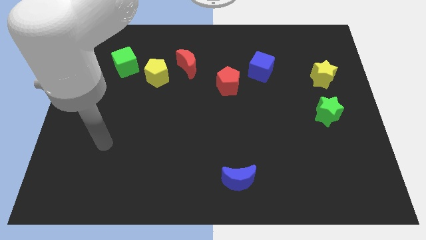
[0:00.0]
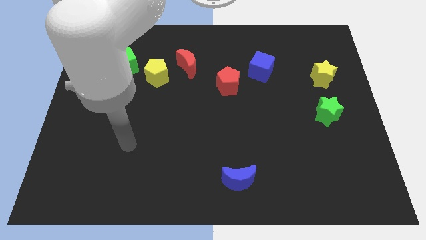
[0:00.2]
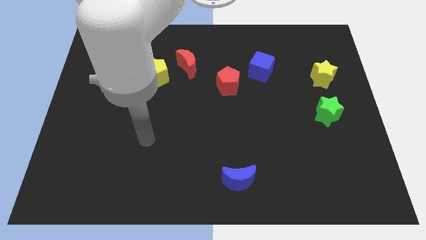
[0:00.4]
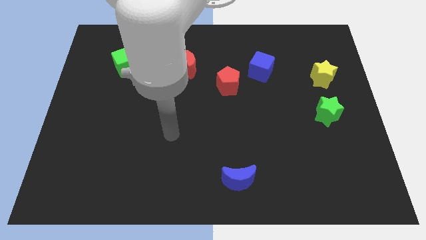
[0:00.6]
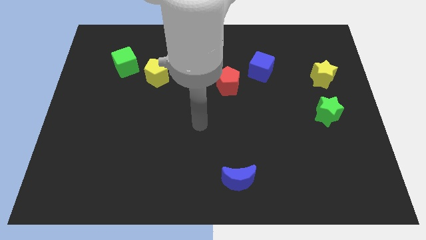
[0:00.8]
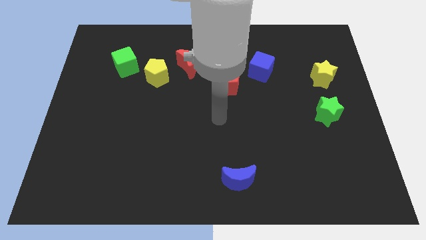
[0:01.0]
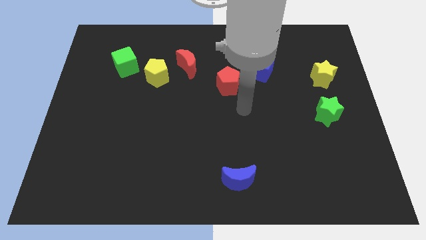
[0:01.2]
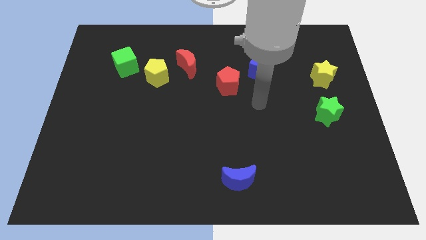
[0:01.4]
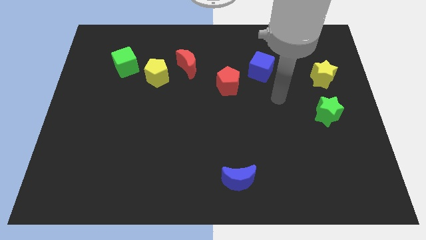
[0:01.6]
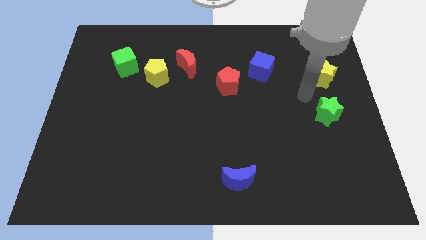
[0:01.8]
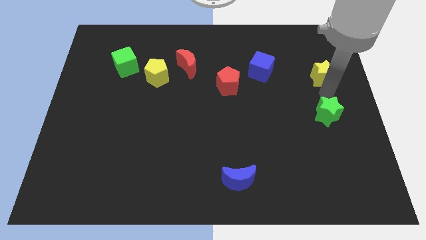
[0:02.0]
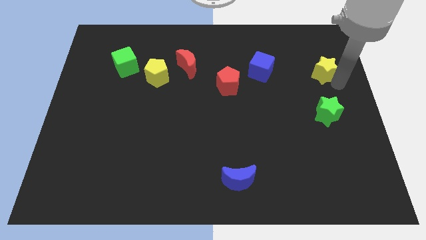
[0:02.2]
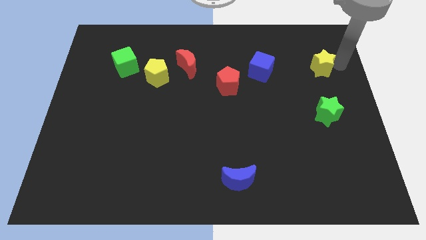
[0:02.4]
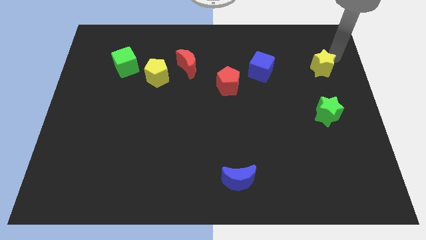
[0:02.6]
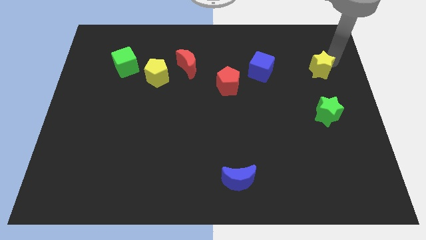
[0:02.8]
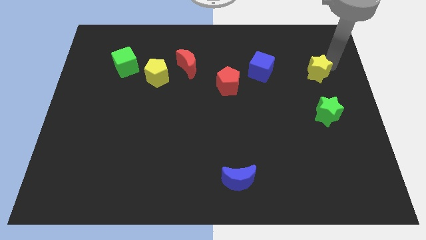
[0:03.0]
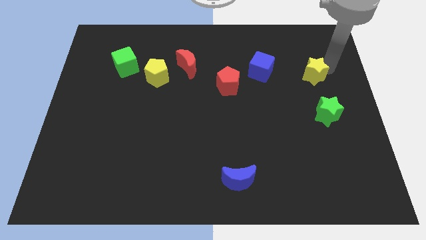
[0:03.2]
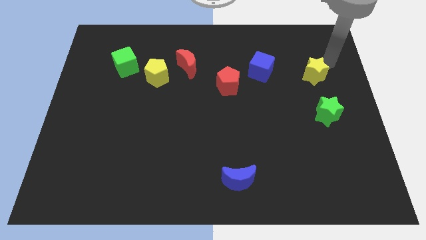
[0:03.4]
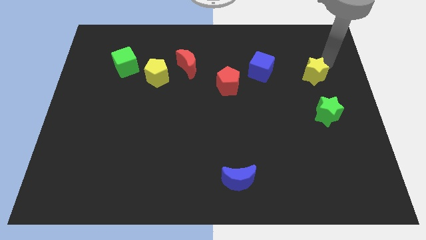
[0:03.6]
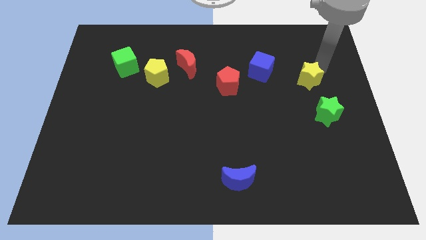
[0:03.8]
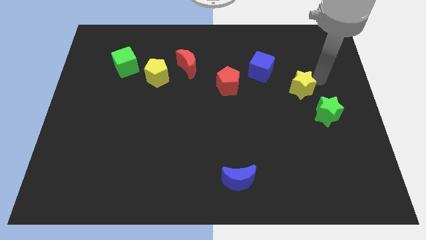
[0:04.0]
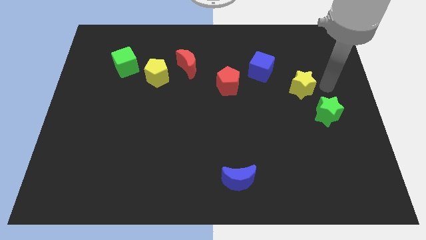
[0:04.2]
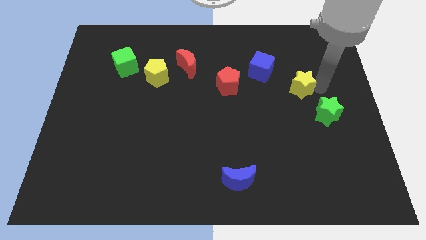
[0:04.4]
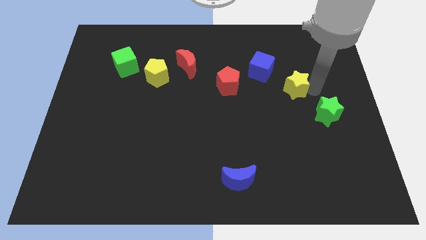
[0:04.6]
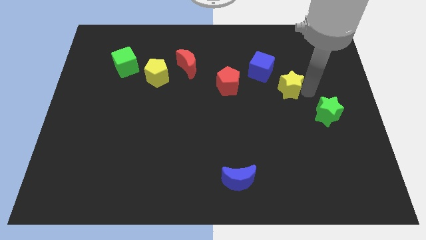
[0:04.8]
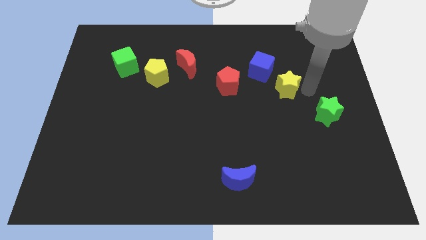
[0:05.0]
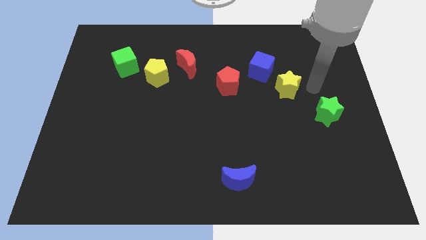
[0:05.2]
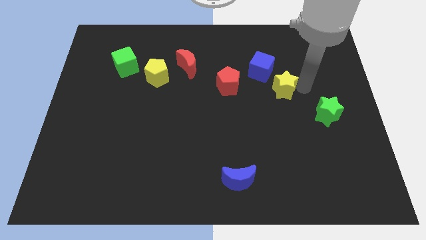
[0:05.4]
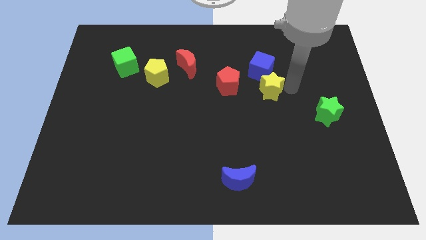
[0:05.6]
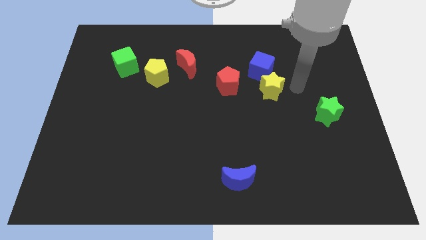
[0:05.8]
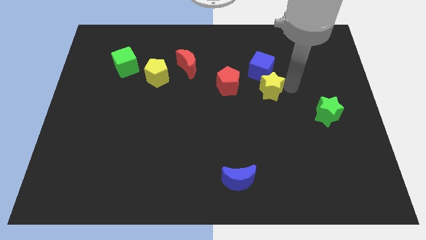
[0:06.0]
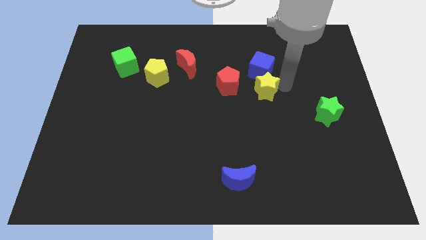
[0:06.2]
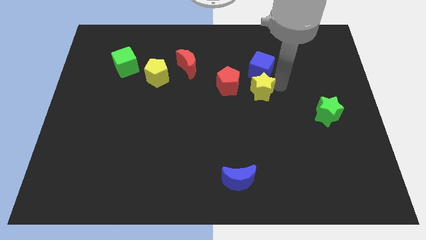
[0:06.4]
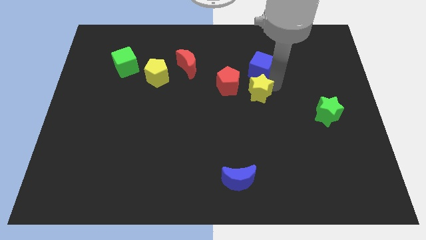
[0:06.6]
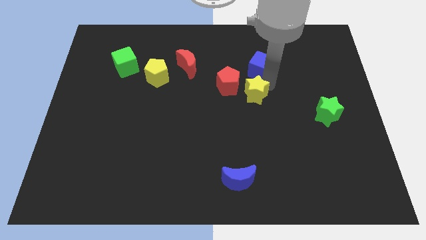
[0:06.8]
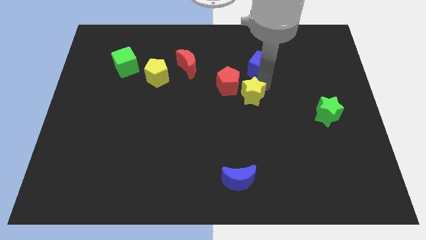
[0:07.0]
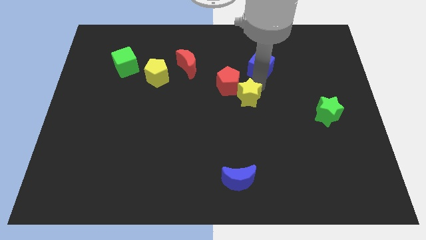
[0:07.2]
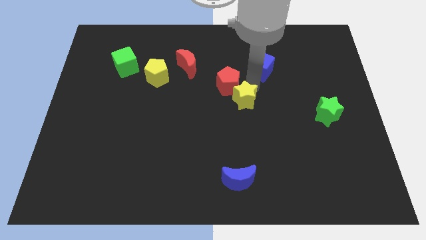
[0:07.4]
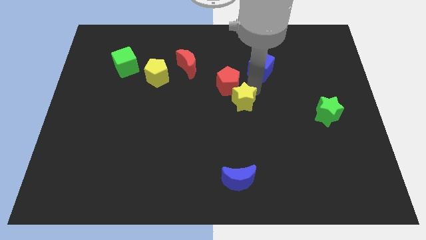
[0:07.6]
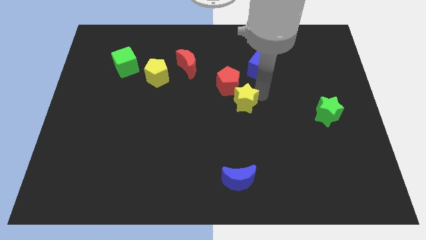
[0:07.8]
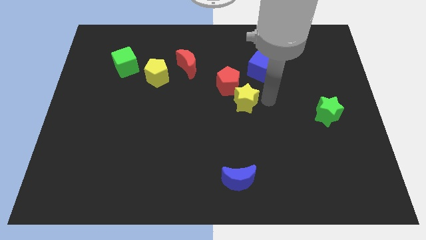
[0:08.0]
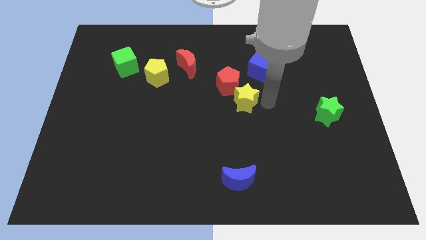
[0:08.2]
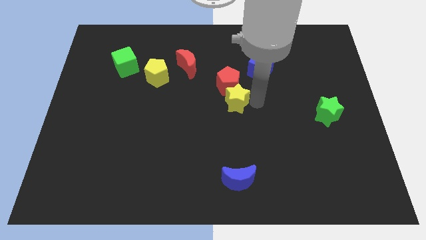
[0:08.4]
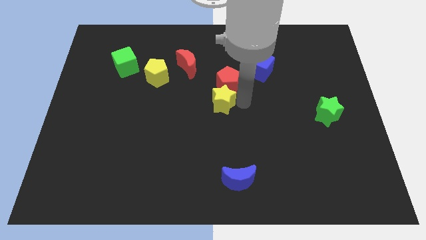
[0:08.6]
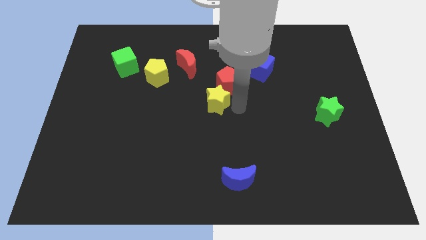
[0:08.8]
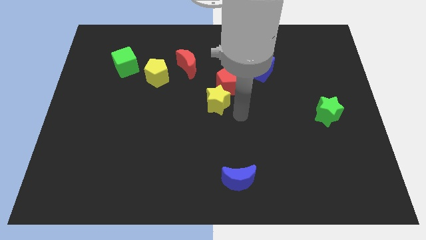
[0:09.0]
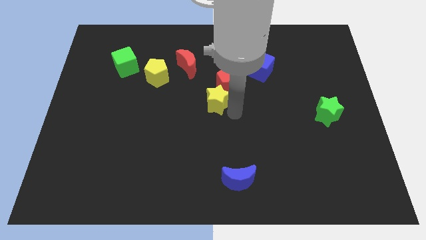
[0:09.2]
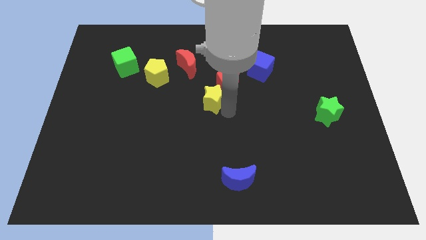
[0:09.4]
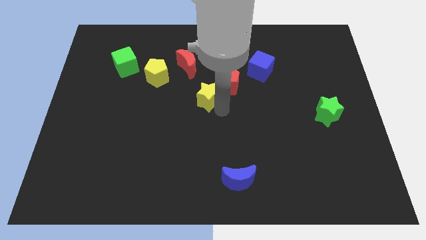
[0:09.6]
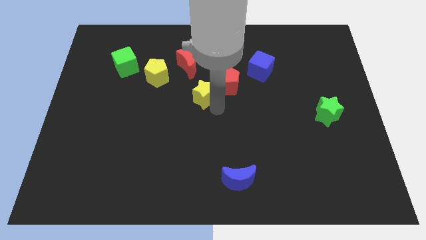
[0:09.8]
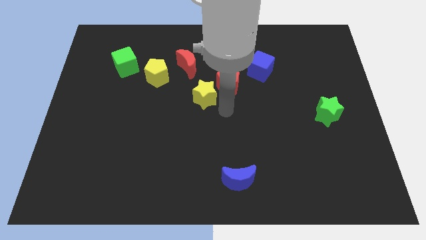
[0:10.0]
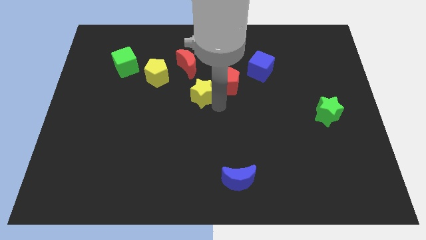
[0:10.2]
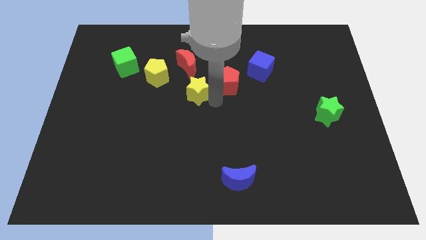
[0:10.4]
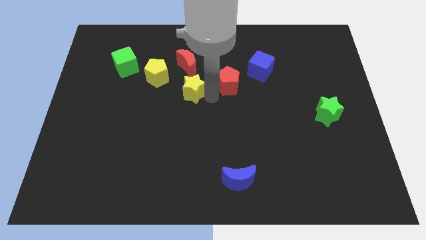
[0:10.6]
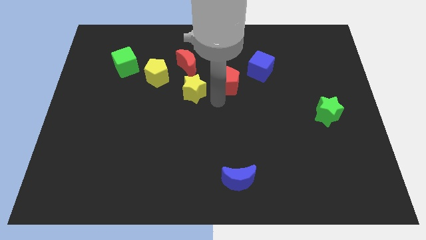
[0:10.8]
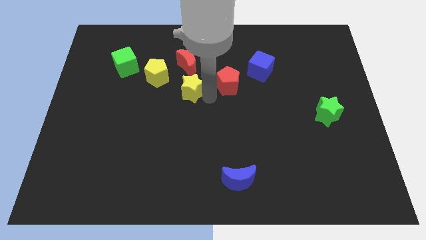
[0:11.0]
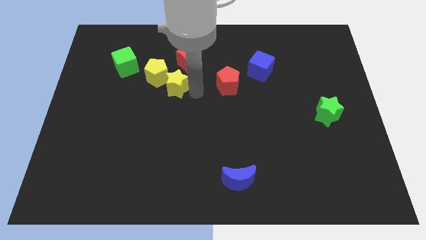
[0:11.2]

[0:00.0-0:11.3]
move the yellow star towards the yellow pentagon

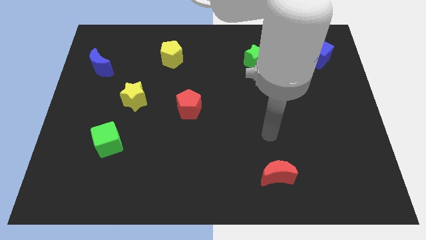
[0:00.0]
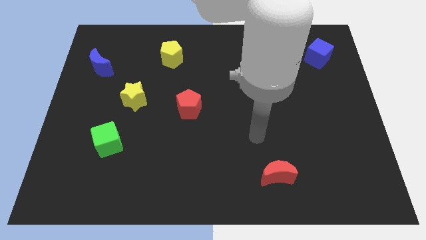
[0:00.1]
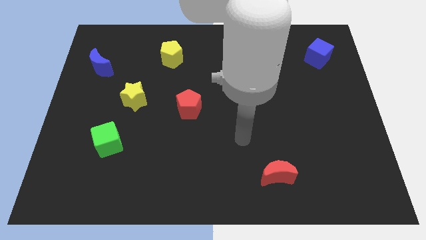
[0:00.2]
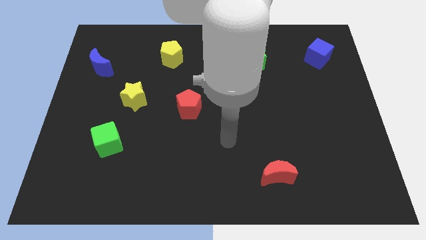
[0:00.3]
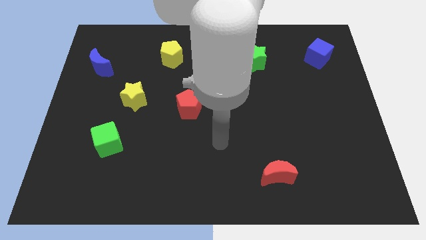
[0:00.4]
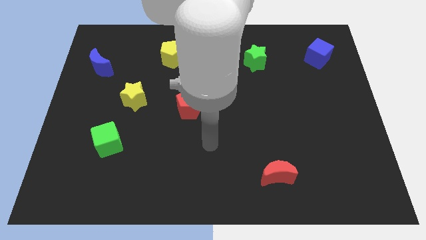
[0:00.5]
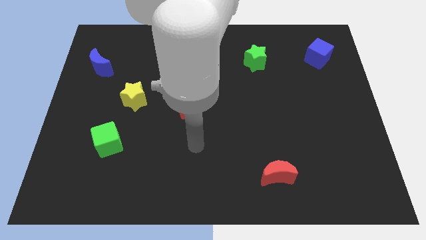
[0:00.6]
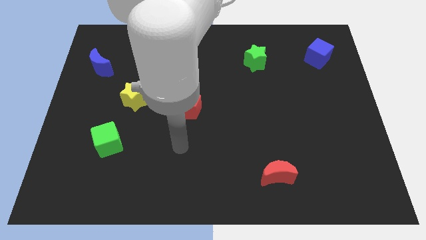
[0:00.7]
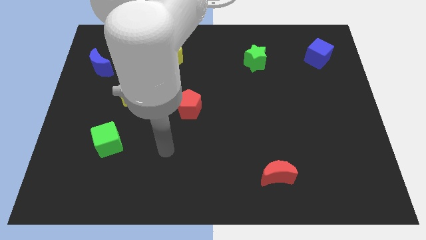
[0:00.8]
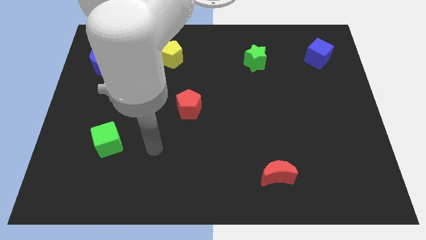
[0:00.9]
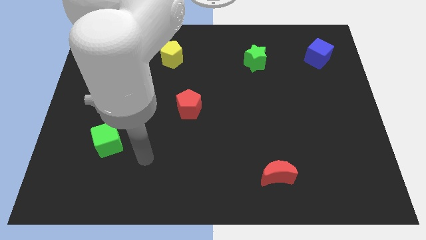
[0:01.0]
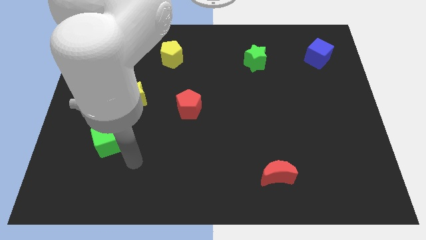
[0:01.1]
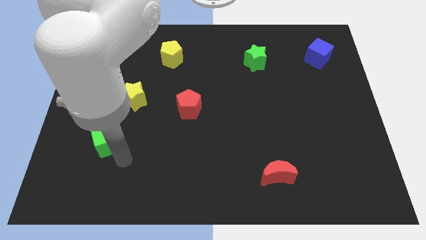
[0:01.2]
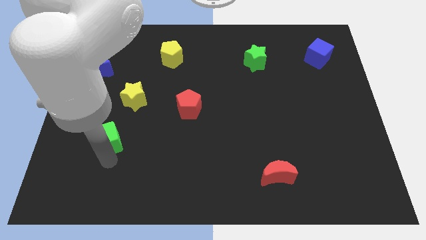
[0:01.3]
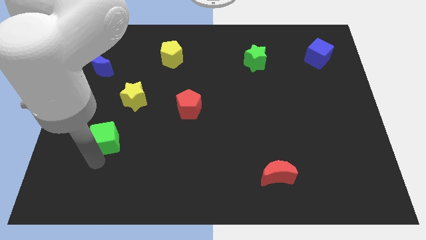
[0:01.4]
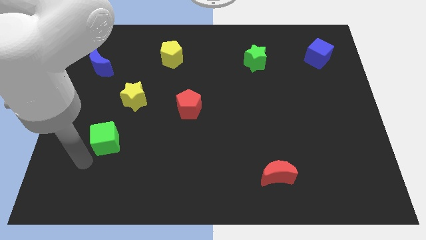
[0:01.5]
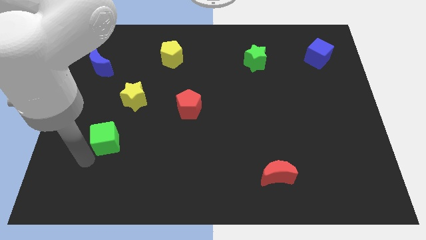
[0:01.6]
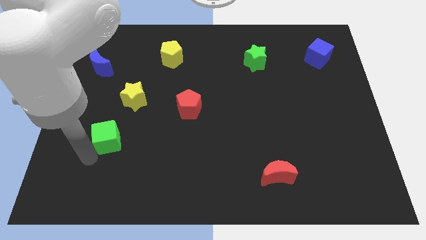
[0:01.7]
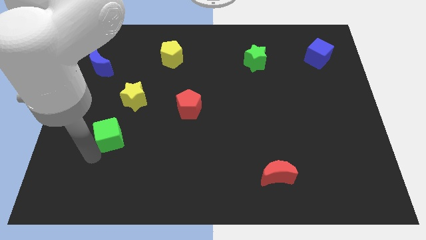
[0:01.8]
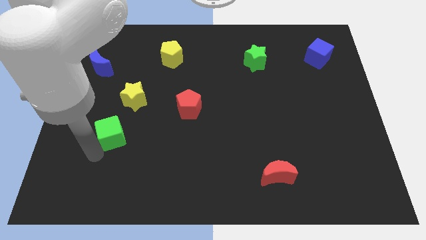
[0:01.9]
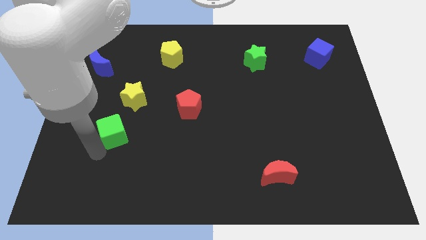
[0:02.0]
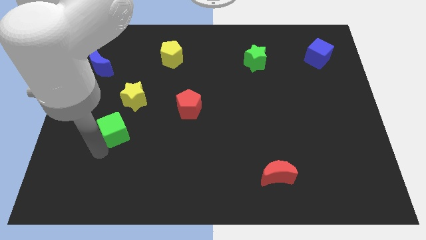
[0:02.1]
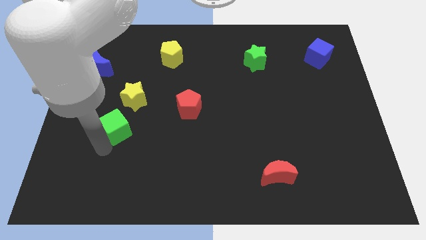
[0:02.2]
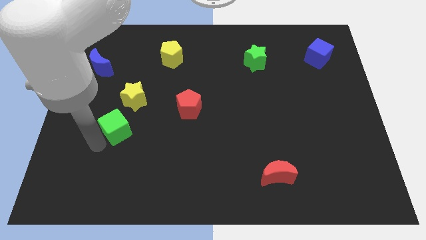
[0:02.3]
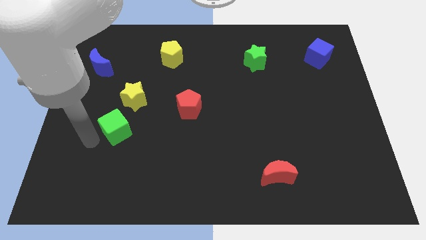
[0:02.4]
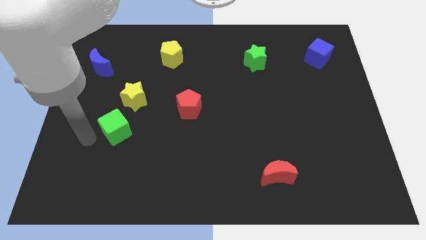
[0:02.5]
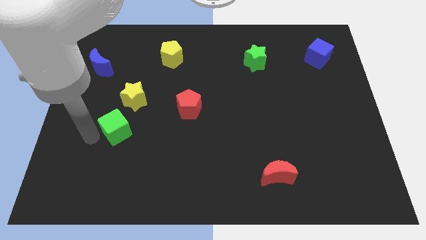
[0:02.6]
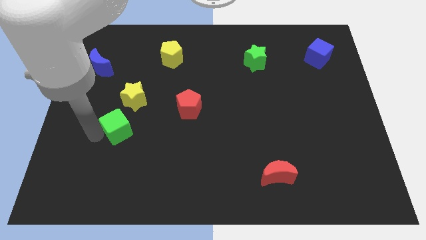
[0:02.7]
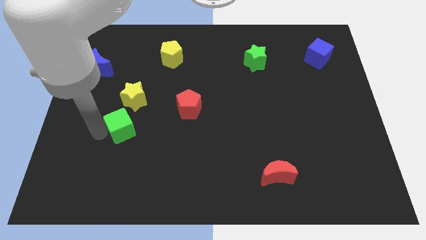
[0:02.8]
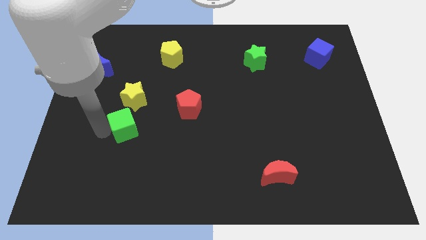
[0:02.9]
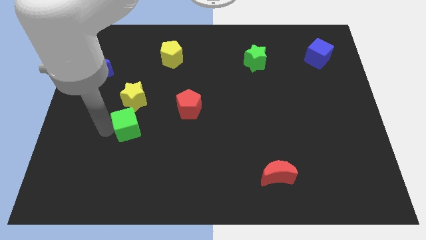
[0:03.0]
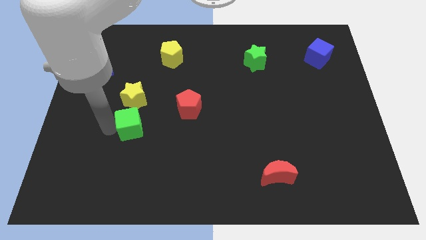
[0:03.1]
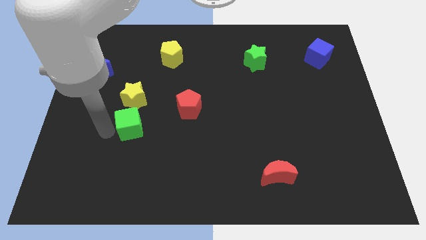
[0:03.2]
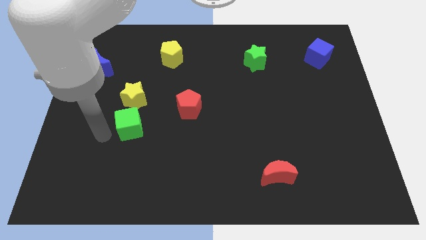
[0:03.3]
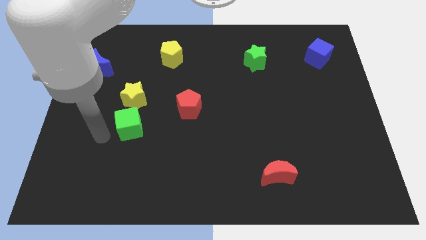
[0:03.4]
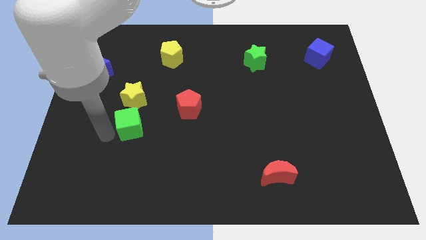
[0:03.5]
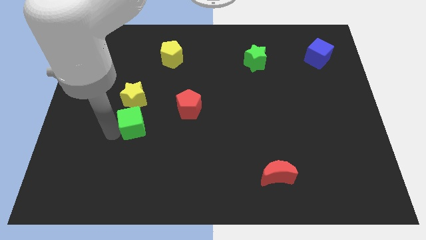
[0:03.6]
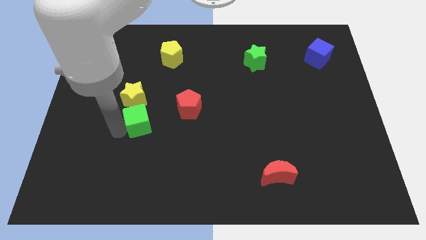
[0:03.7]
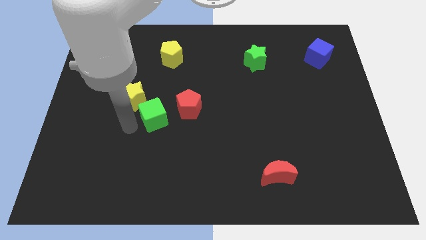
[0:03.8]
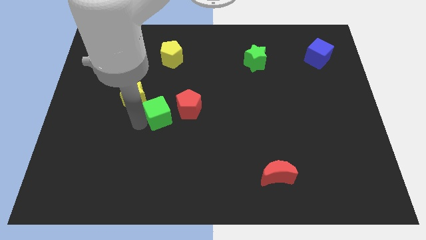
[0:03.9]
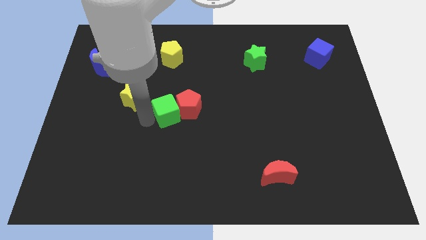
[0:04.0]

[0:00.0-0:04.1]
slide the green cube close to the red pentagon
